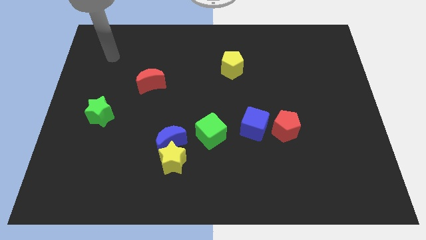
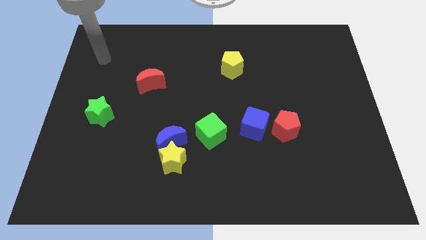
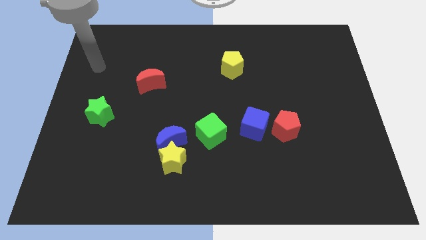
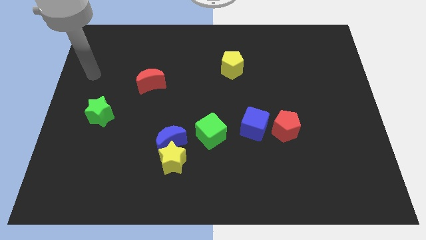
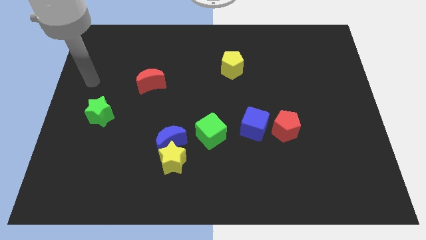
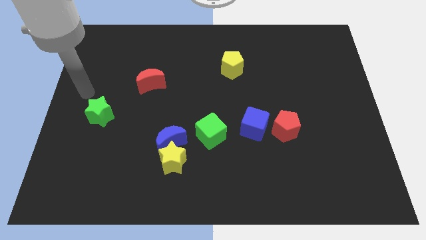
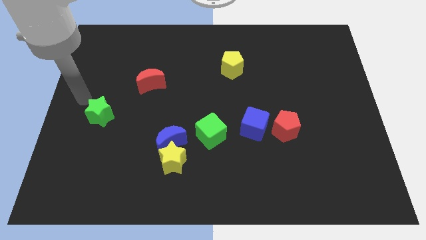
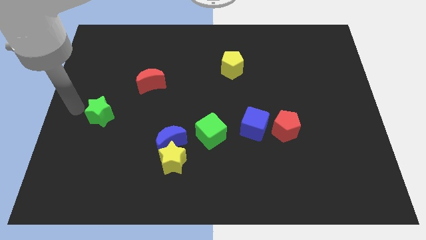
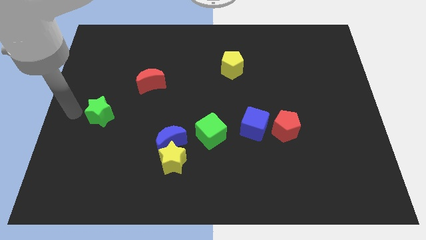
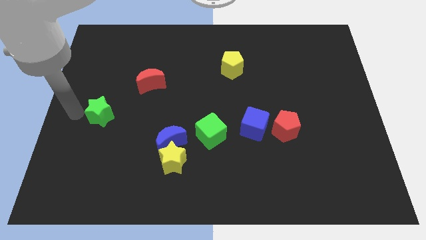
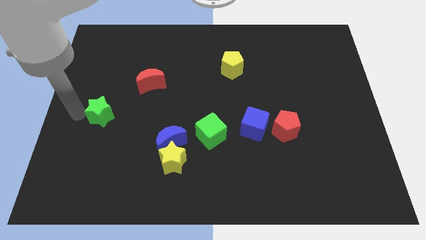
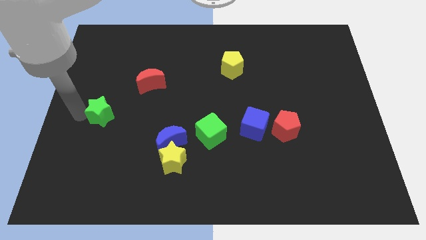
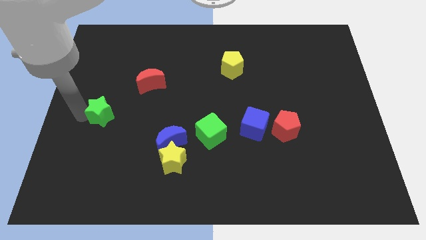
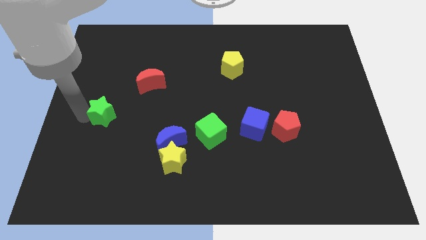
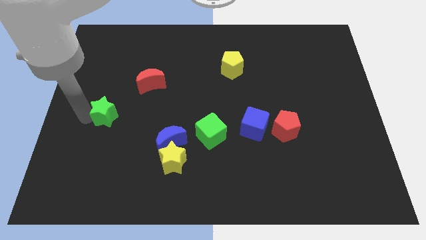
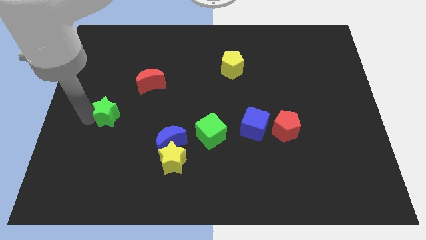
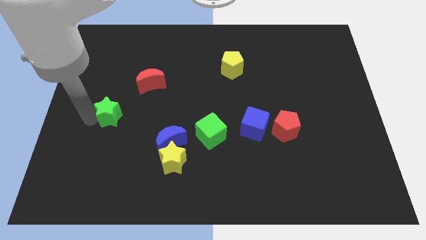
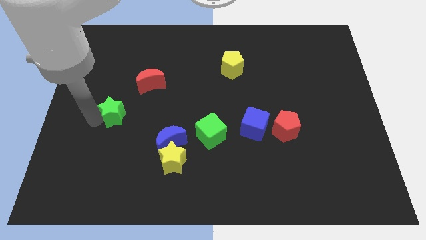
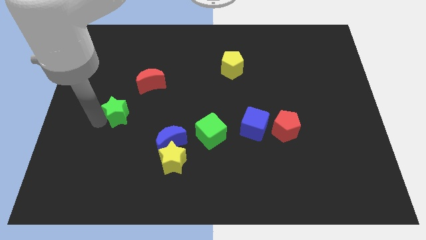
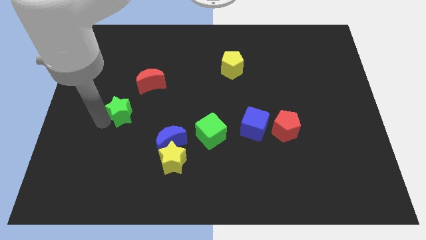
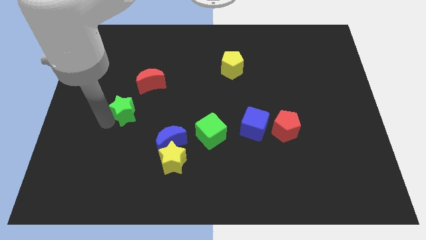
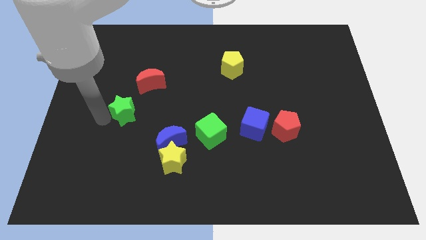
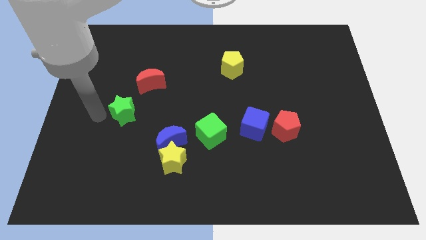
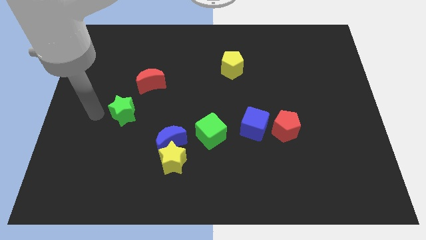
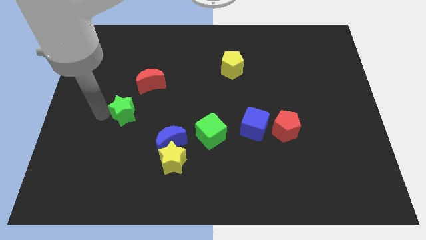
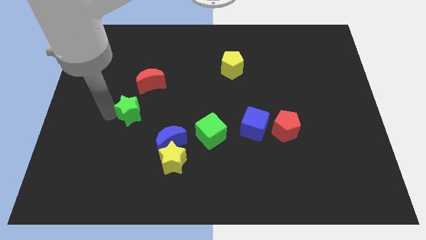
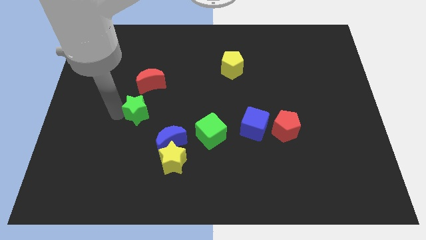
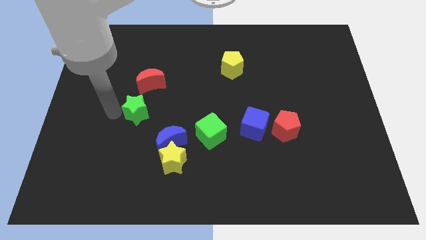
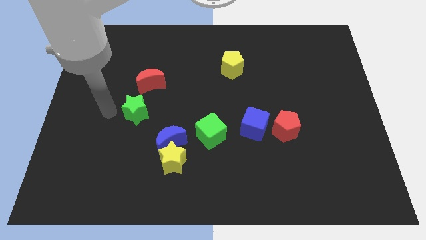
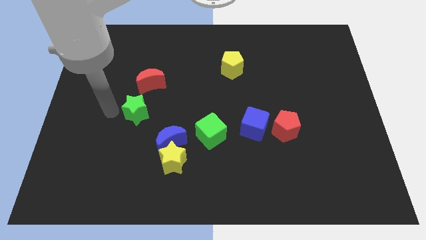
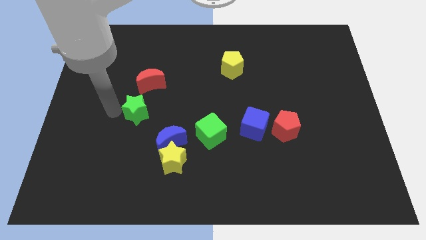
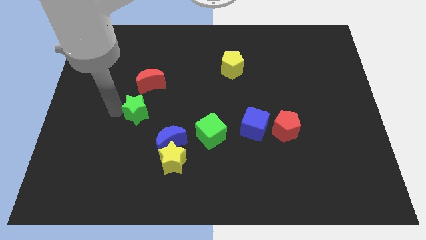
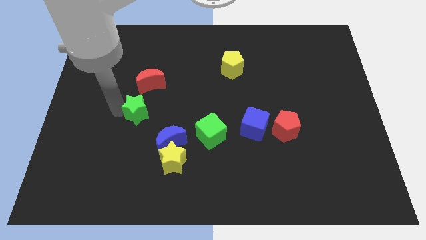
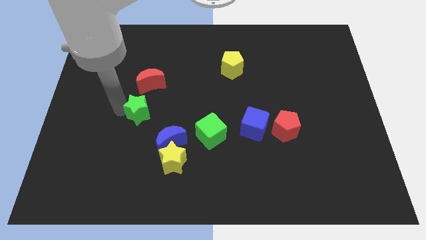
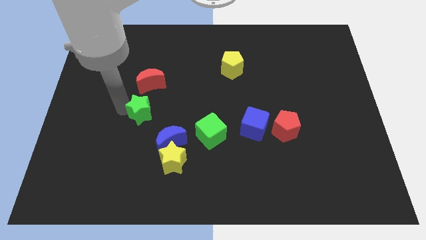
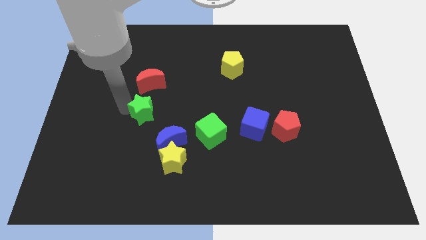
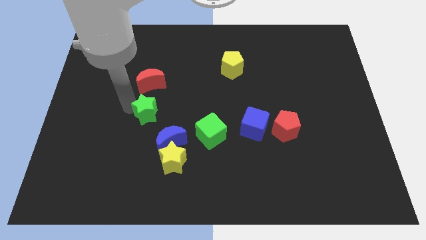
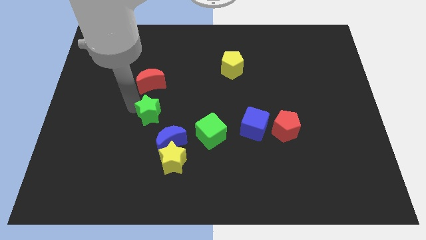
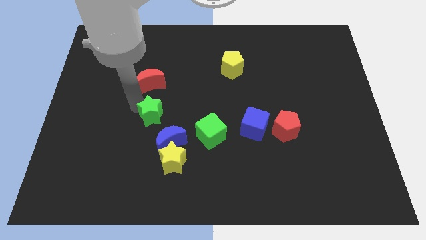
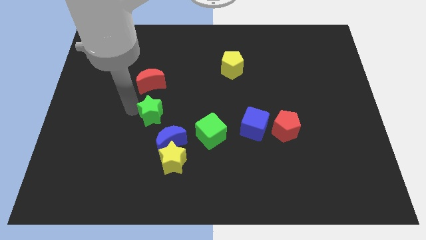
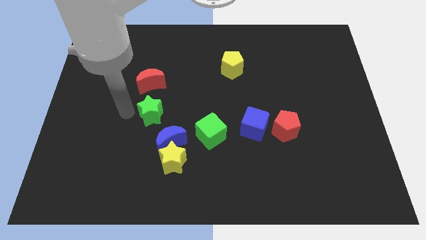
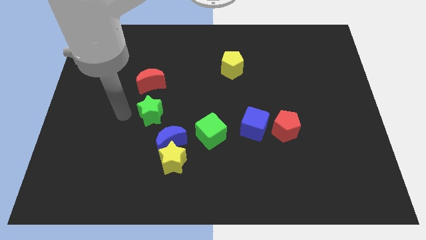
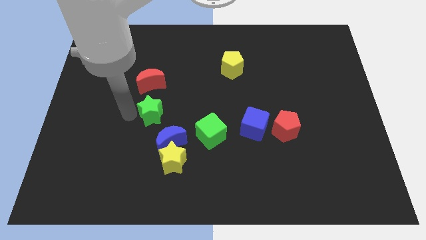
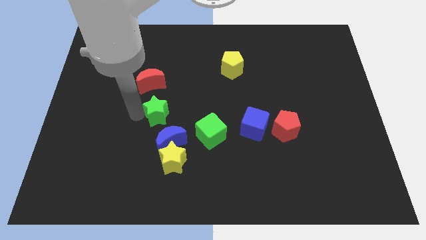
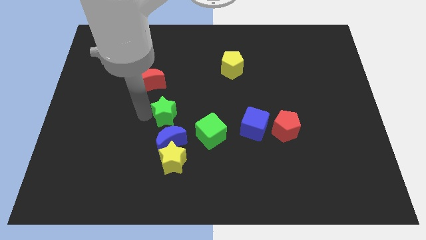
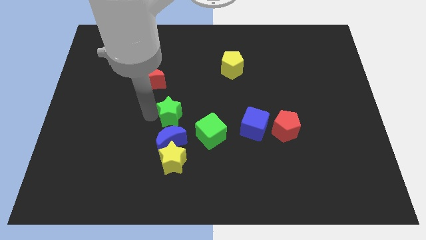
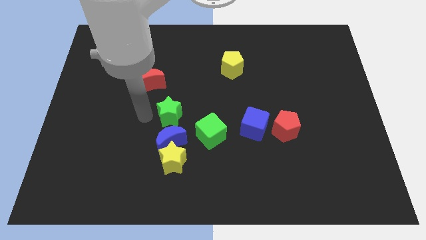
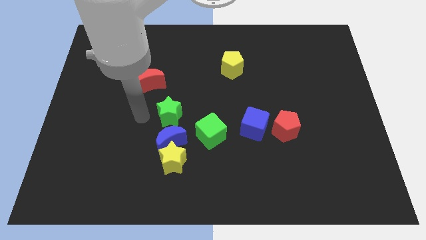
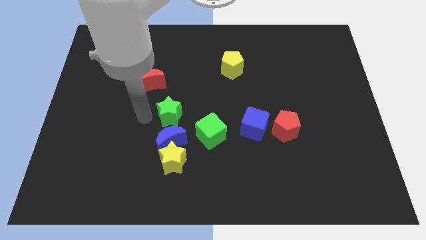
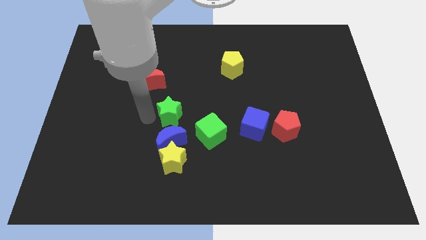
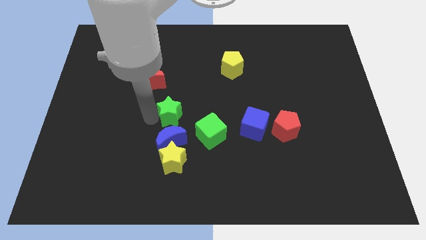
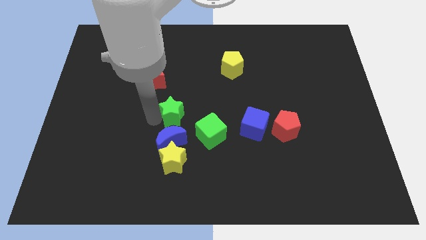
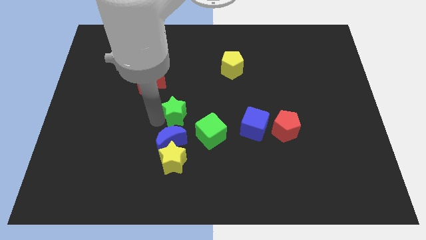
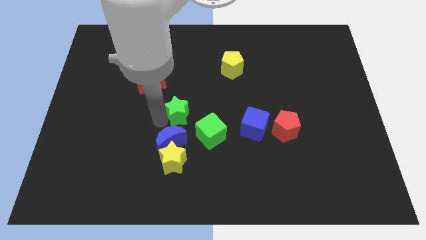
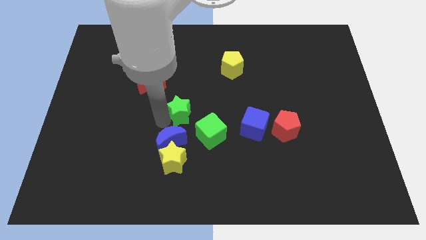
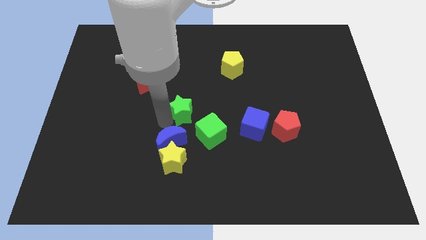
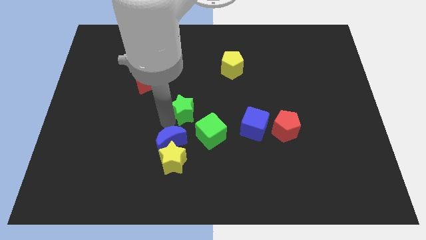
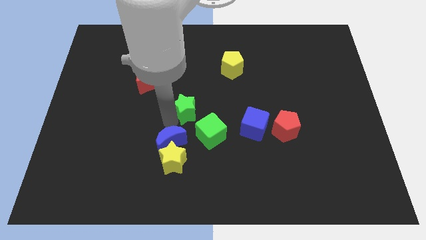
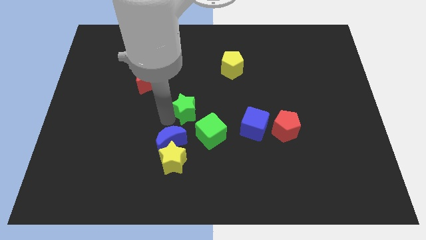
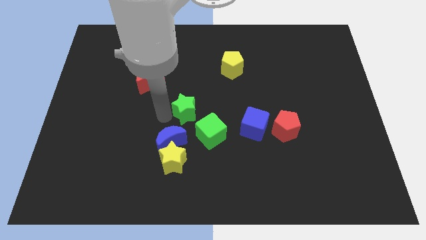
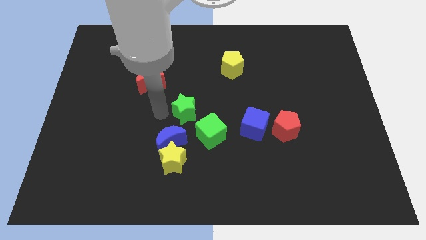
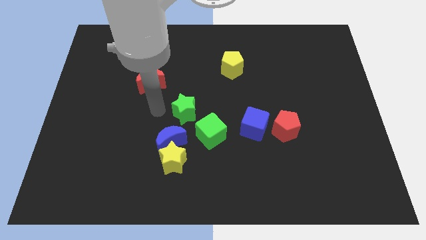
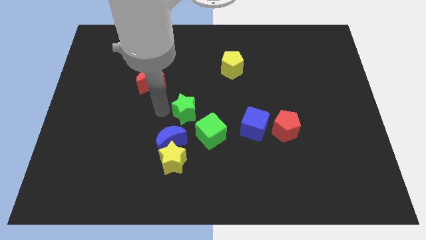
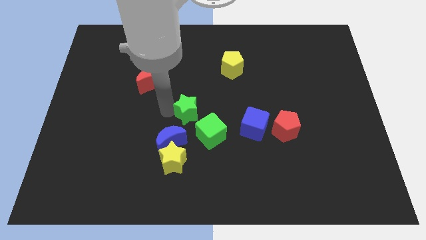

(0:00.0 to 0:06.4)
move the green star right

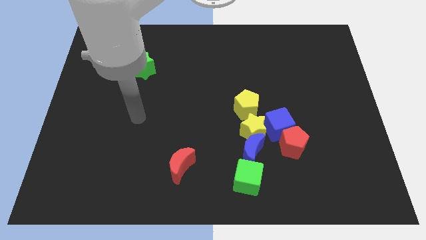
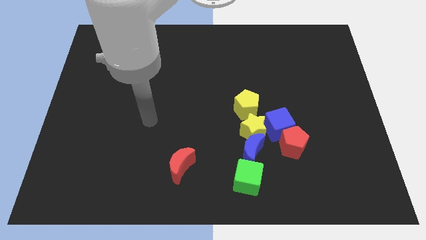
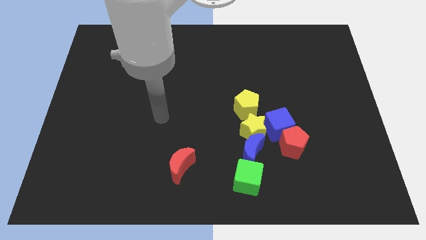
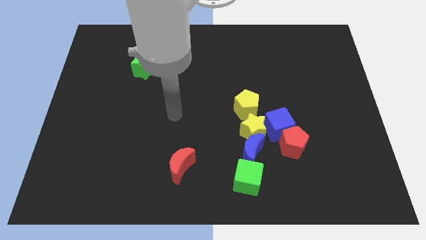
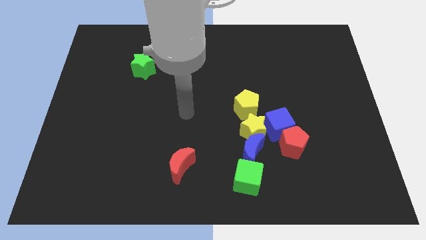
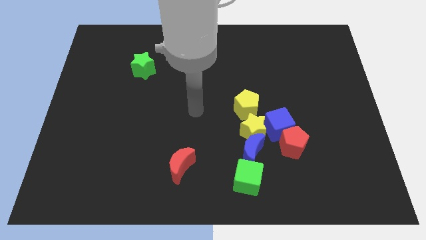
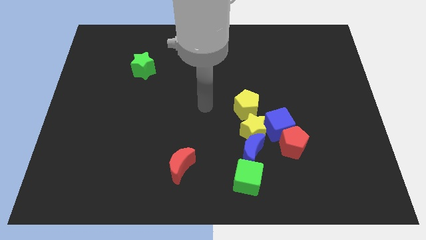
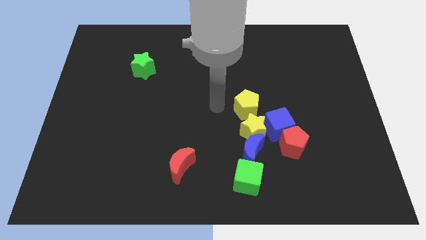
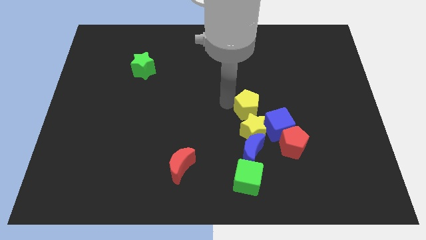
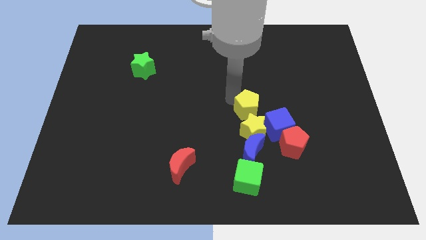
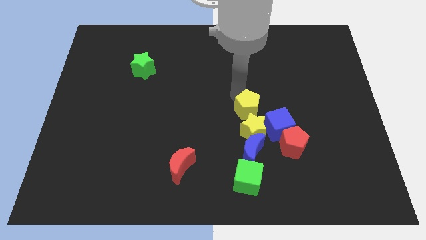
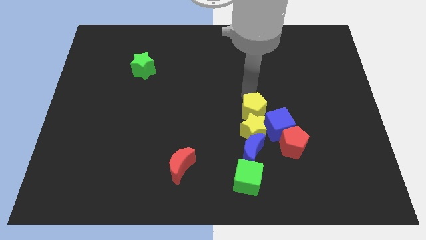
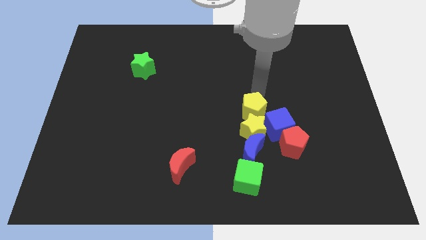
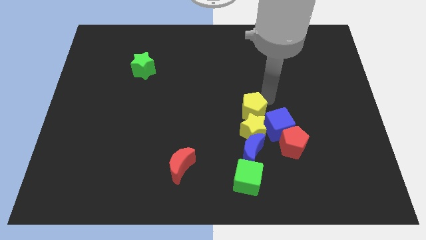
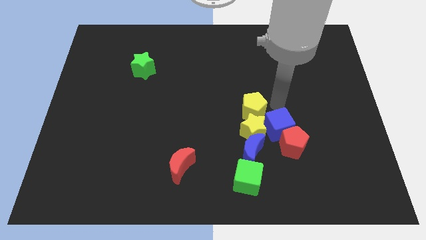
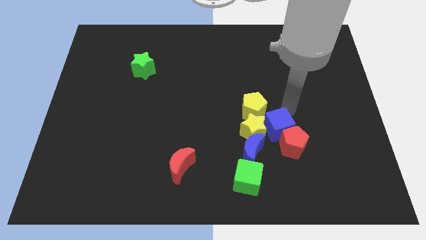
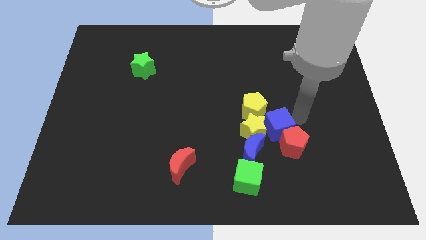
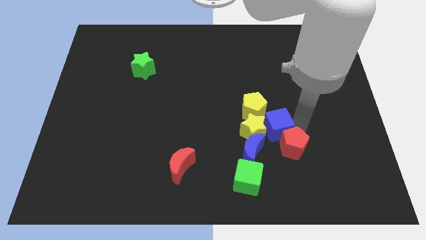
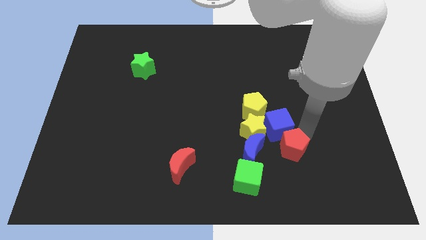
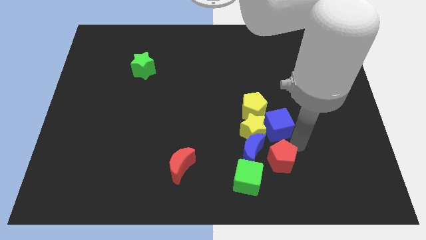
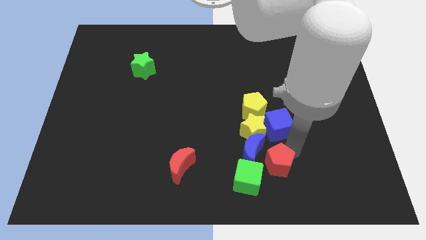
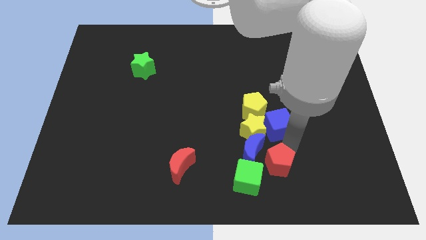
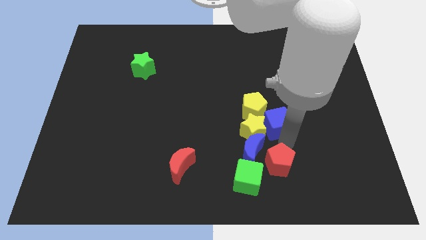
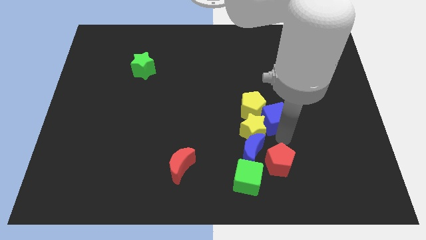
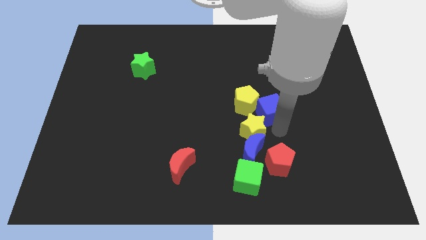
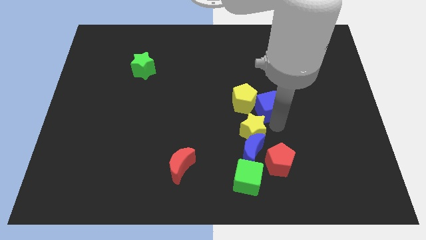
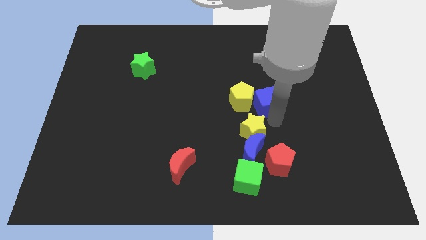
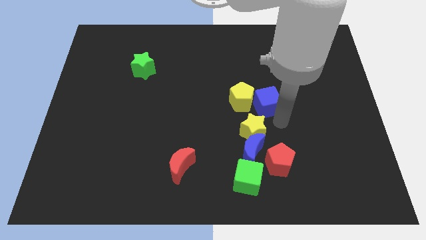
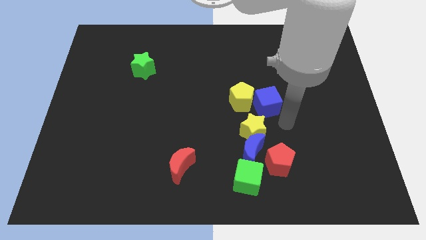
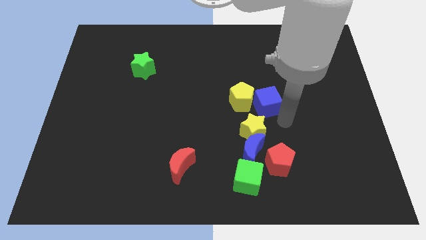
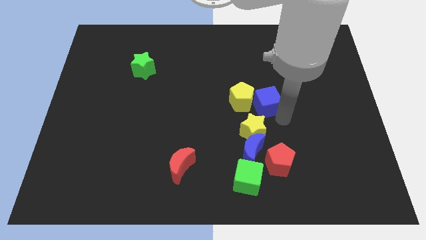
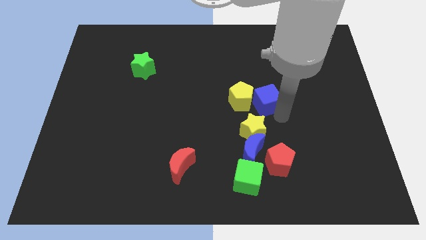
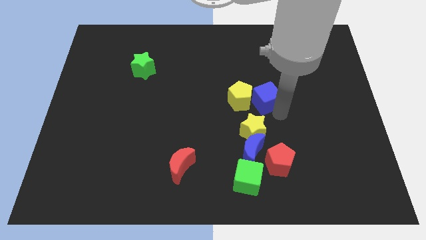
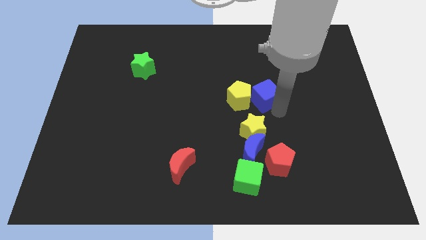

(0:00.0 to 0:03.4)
push the blue cube slightly diagonally upwards and left
